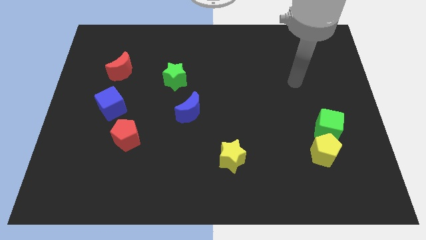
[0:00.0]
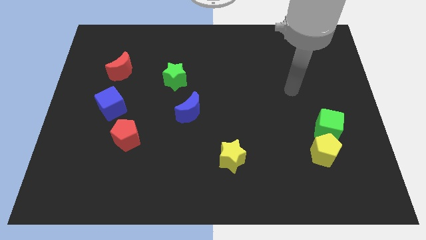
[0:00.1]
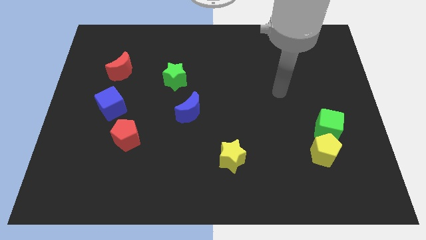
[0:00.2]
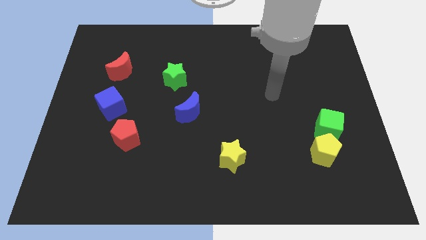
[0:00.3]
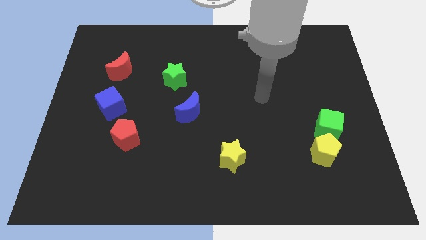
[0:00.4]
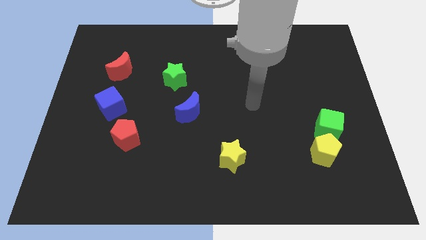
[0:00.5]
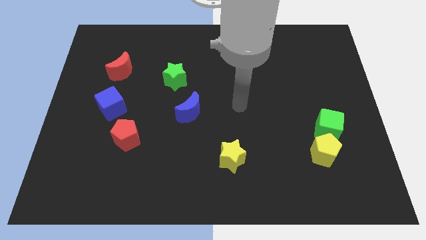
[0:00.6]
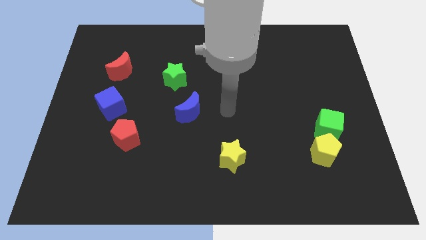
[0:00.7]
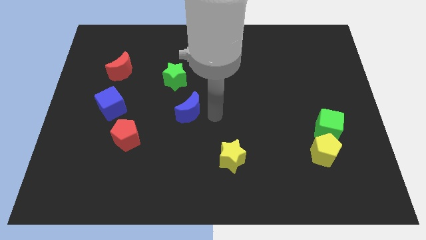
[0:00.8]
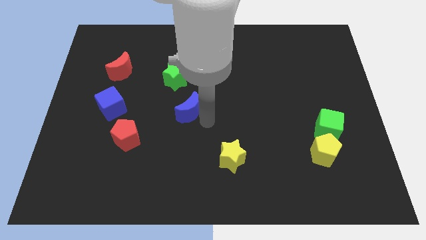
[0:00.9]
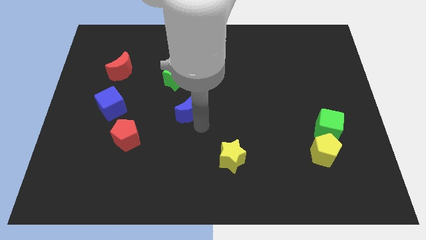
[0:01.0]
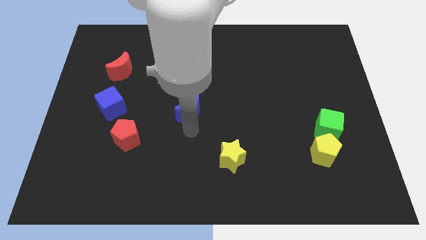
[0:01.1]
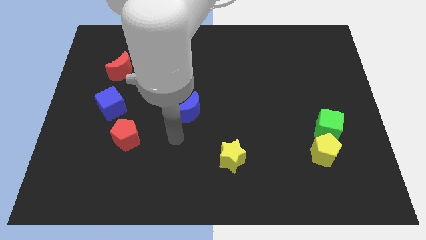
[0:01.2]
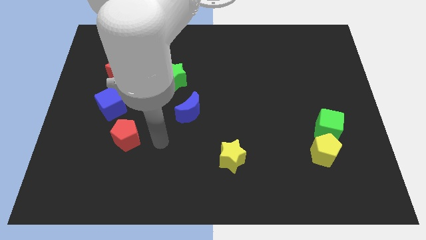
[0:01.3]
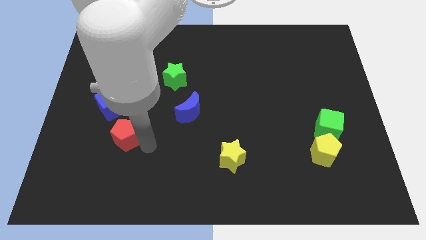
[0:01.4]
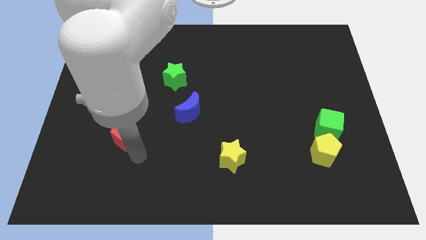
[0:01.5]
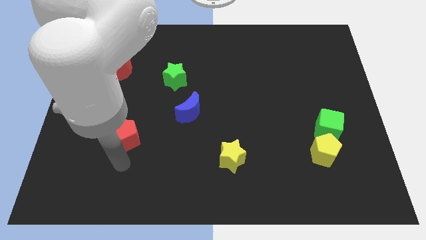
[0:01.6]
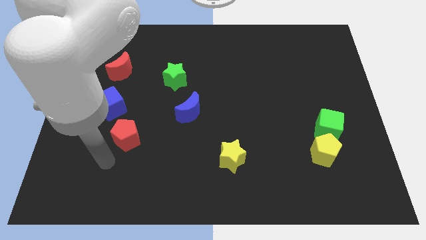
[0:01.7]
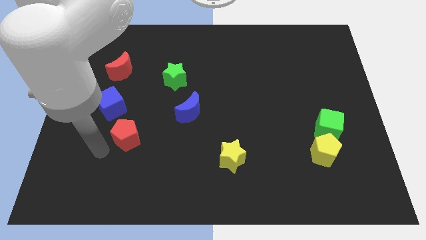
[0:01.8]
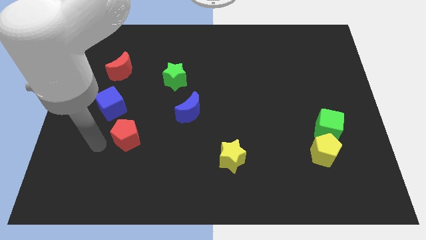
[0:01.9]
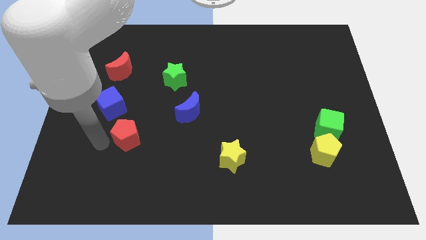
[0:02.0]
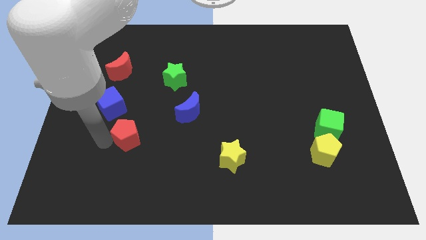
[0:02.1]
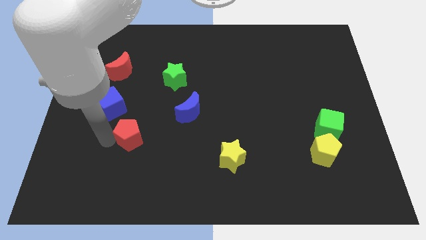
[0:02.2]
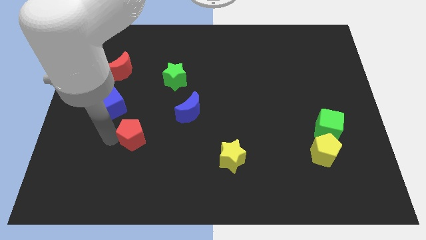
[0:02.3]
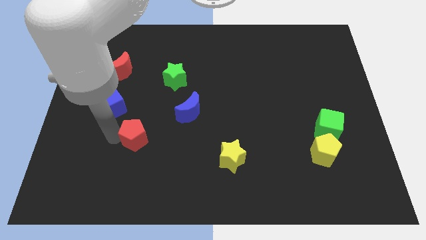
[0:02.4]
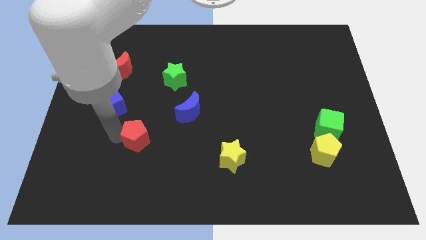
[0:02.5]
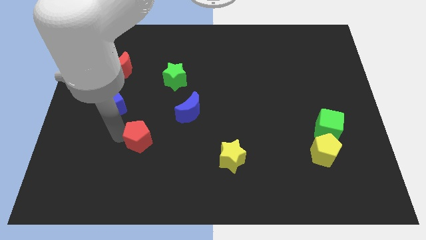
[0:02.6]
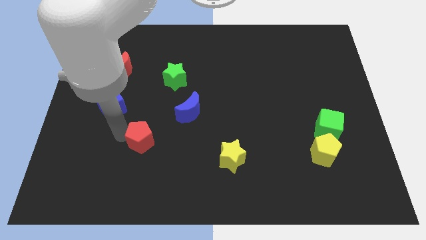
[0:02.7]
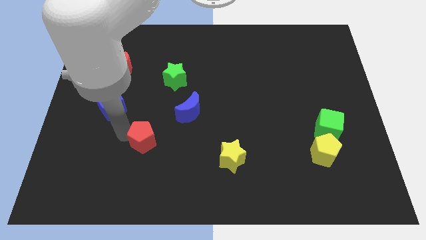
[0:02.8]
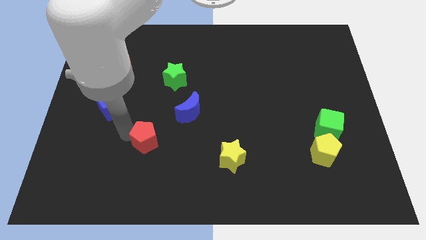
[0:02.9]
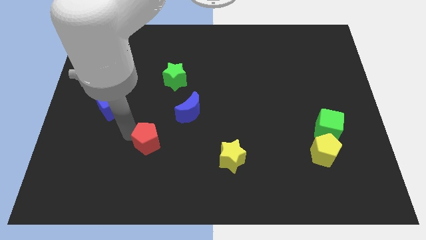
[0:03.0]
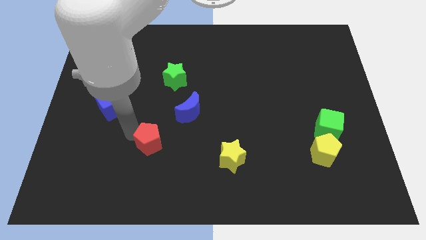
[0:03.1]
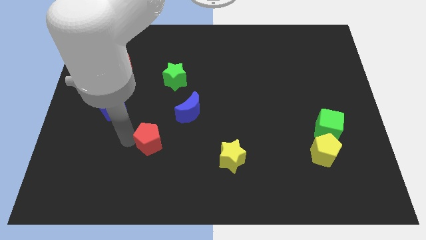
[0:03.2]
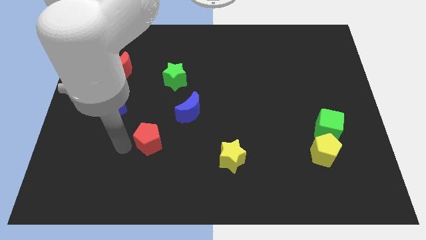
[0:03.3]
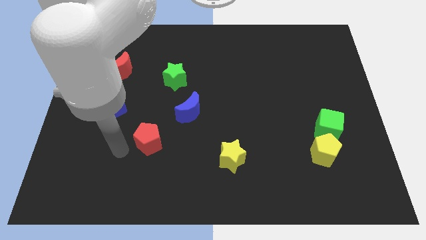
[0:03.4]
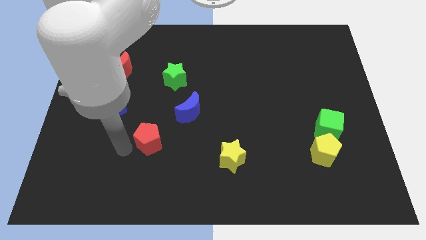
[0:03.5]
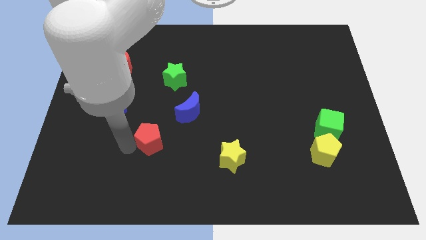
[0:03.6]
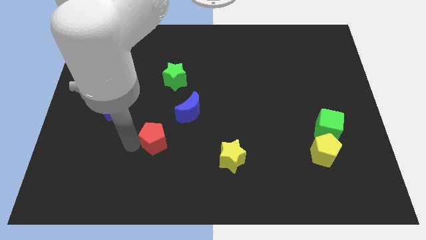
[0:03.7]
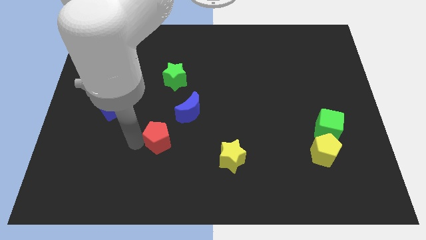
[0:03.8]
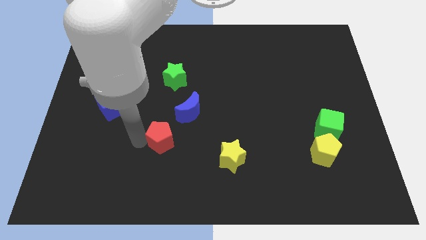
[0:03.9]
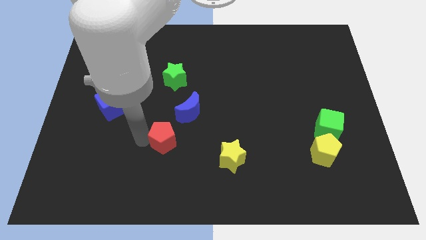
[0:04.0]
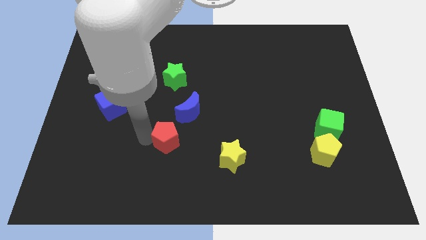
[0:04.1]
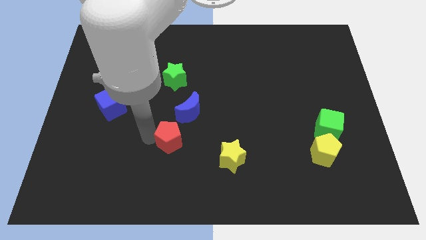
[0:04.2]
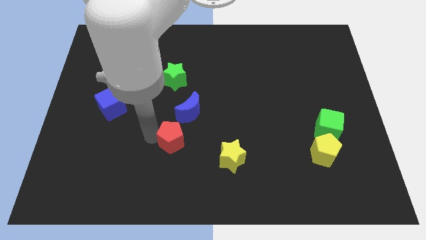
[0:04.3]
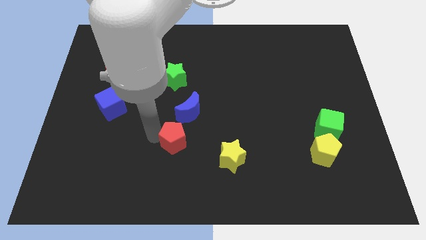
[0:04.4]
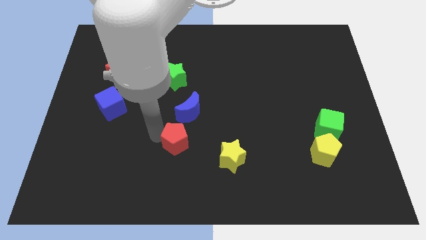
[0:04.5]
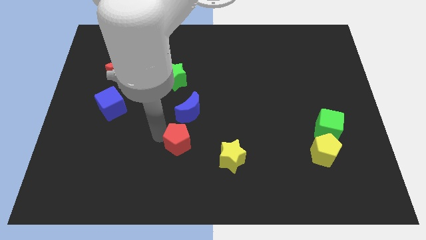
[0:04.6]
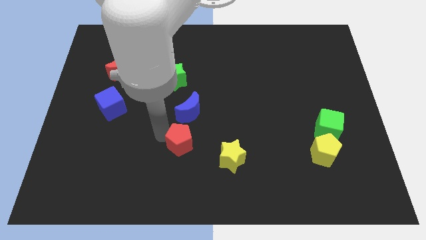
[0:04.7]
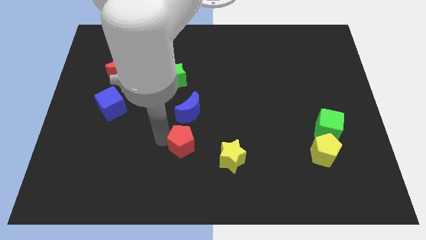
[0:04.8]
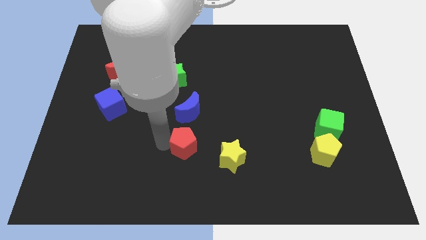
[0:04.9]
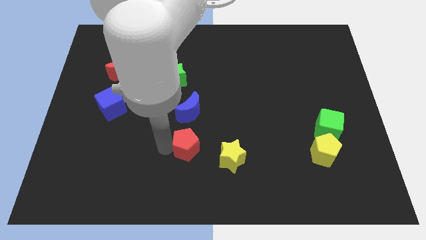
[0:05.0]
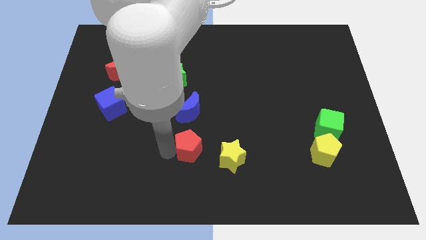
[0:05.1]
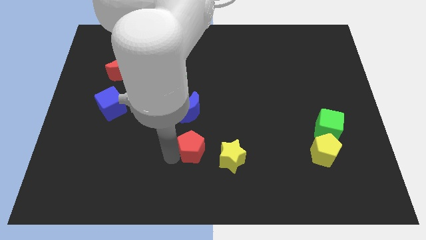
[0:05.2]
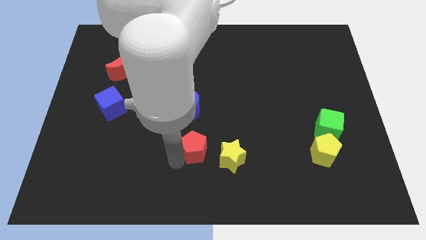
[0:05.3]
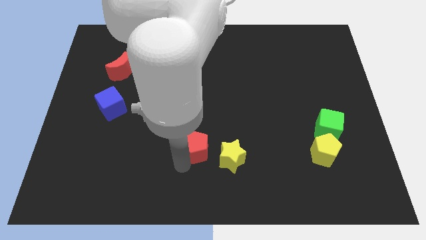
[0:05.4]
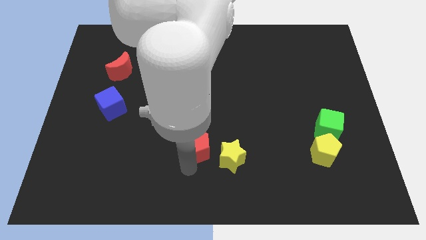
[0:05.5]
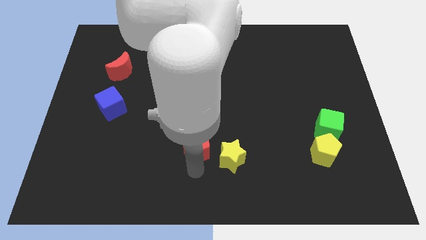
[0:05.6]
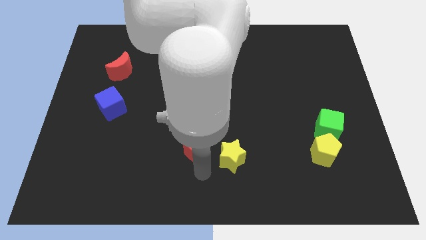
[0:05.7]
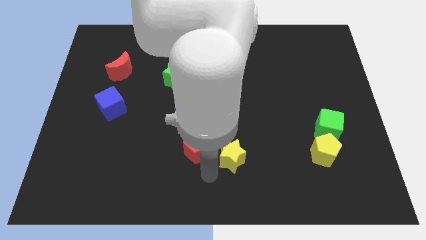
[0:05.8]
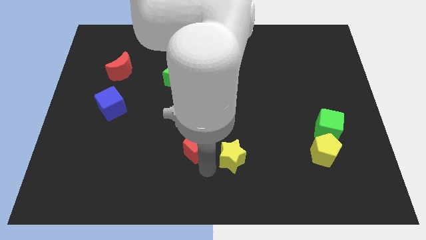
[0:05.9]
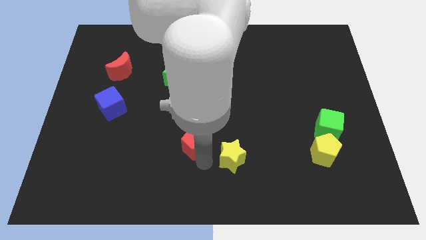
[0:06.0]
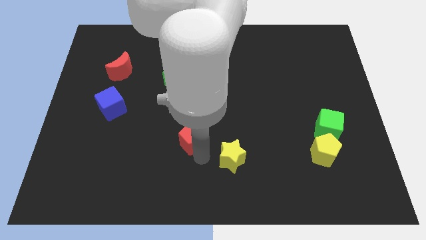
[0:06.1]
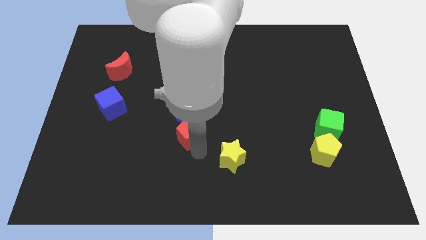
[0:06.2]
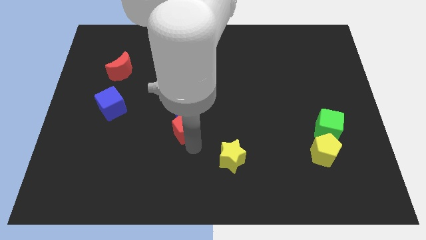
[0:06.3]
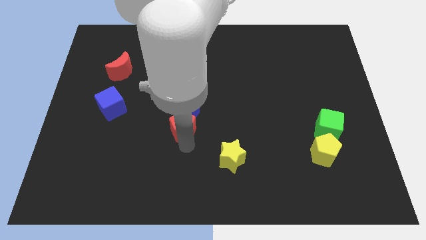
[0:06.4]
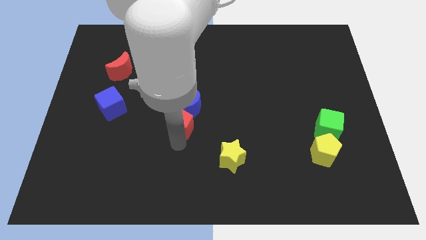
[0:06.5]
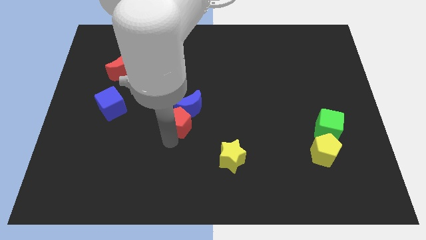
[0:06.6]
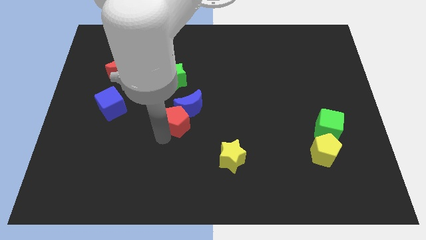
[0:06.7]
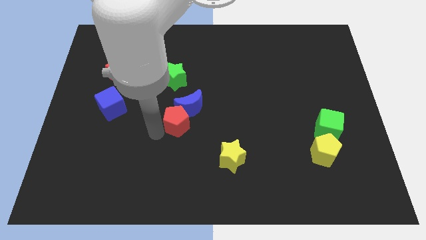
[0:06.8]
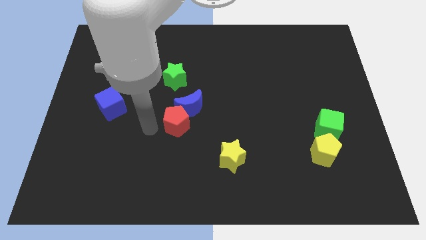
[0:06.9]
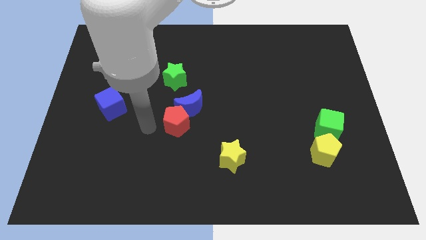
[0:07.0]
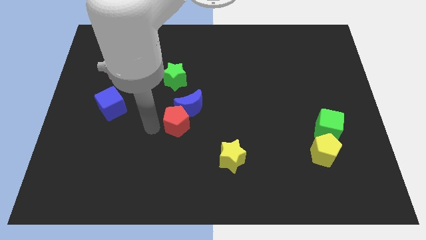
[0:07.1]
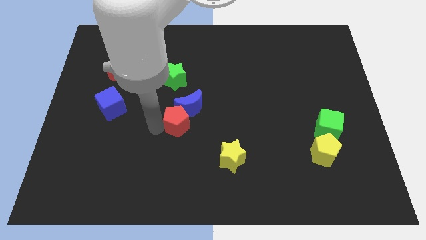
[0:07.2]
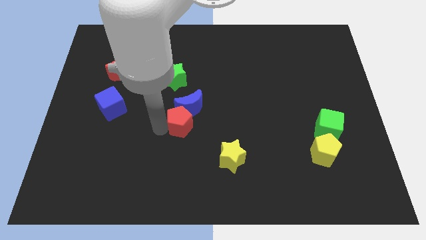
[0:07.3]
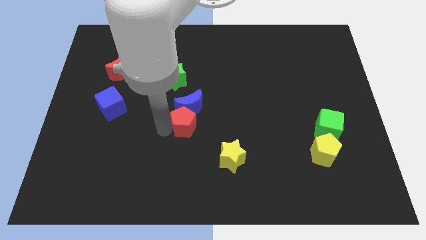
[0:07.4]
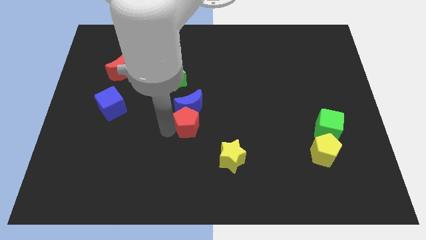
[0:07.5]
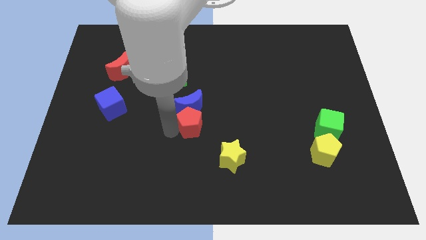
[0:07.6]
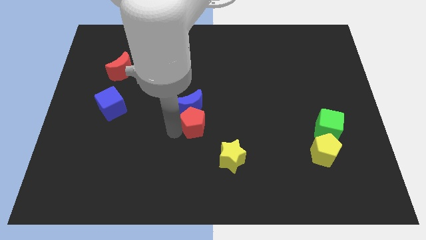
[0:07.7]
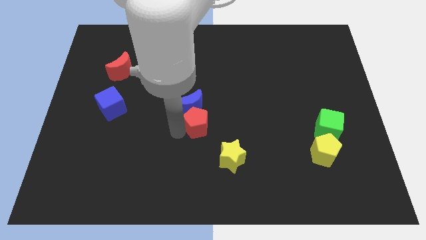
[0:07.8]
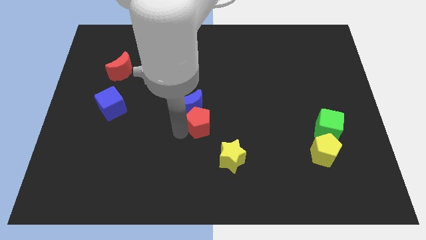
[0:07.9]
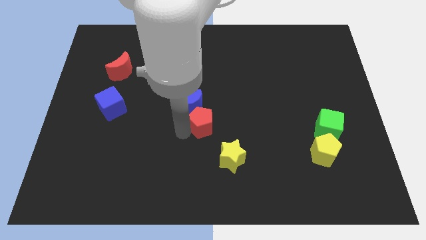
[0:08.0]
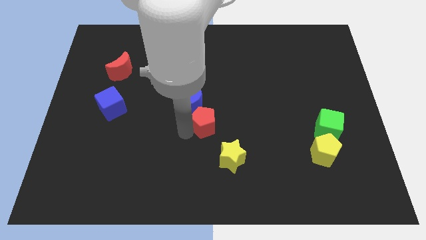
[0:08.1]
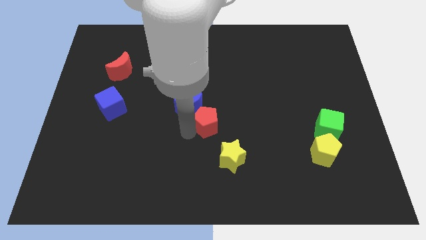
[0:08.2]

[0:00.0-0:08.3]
move the red pentagon to the right of the blue moon
